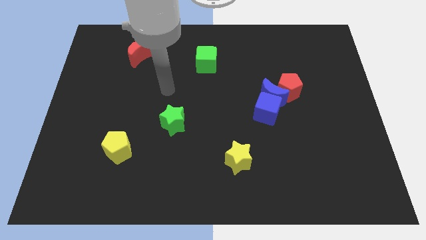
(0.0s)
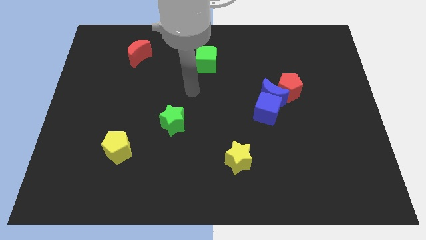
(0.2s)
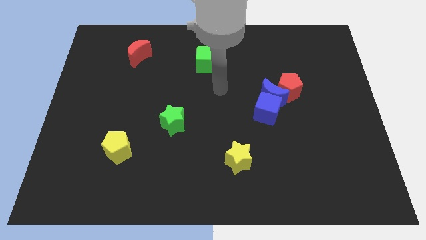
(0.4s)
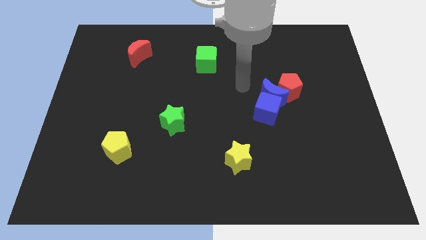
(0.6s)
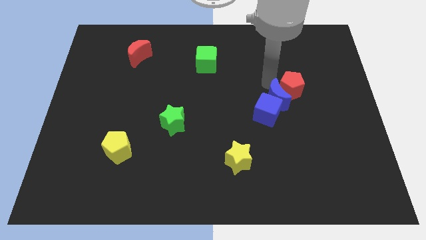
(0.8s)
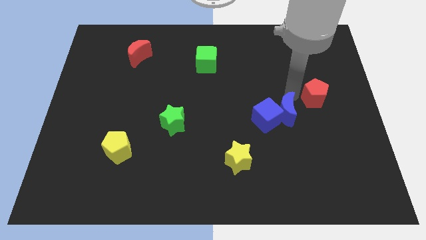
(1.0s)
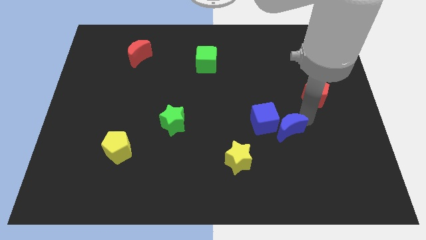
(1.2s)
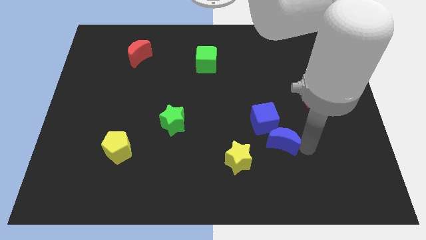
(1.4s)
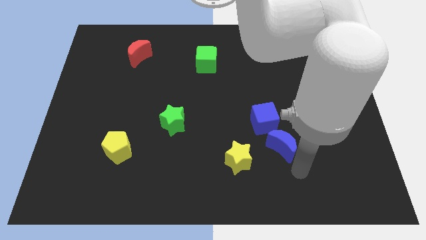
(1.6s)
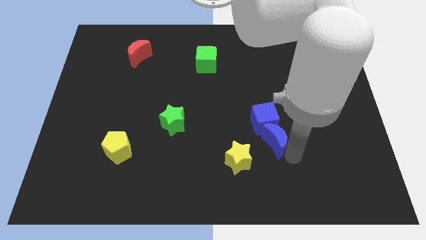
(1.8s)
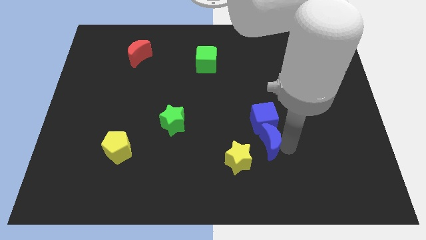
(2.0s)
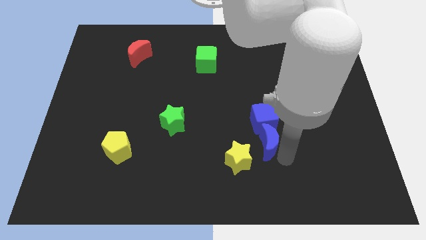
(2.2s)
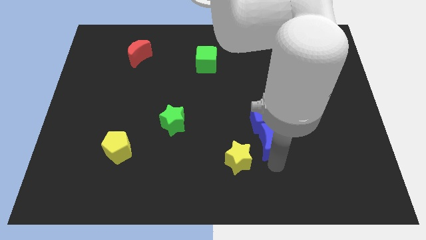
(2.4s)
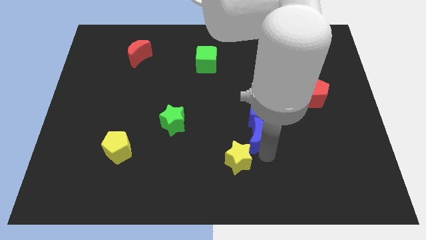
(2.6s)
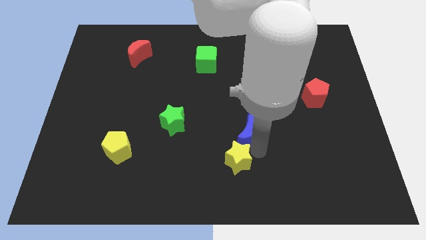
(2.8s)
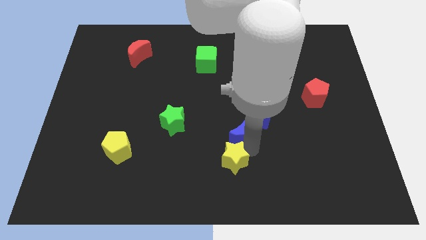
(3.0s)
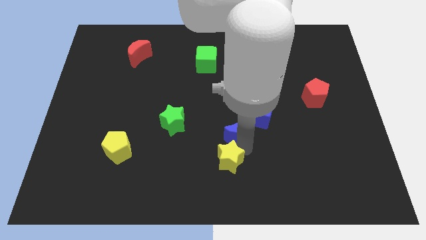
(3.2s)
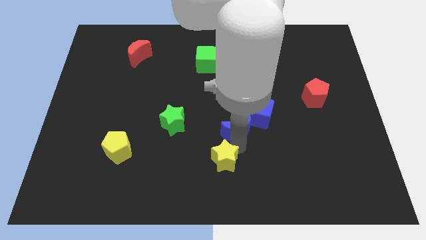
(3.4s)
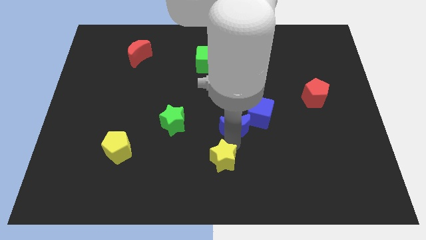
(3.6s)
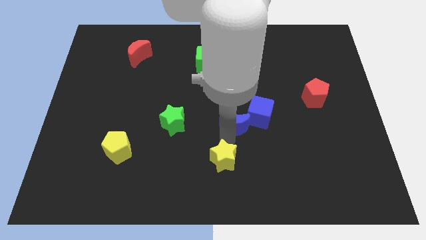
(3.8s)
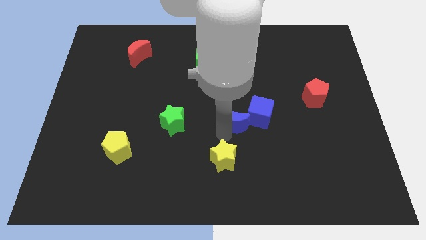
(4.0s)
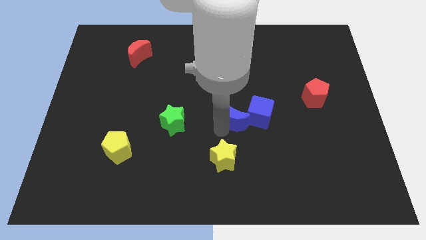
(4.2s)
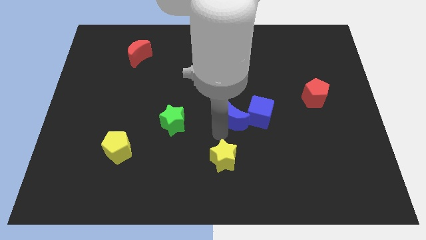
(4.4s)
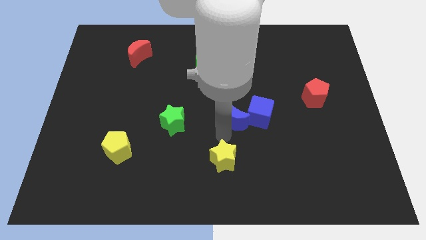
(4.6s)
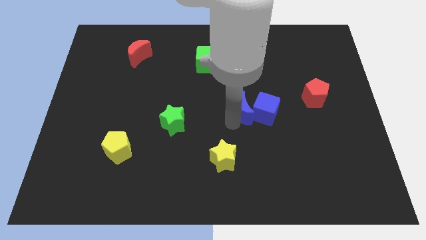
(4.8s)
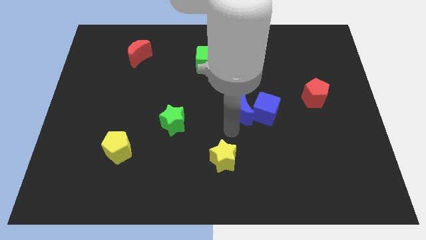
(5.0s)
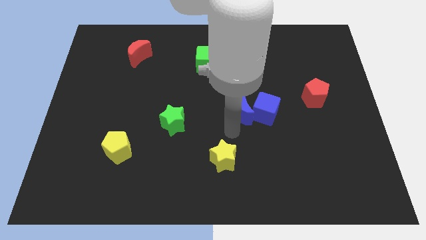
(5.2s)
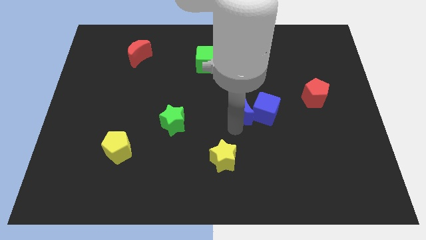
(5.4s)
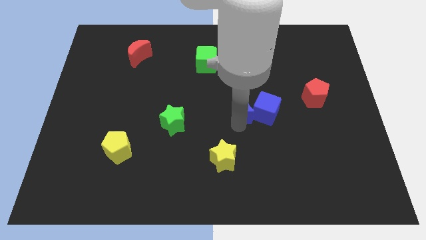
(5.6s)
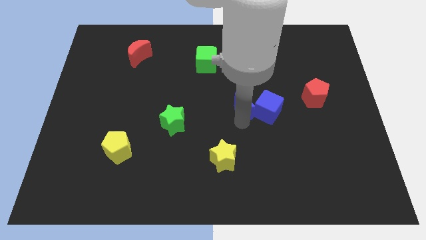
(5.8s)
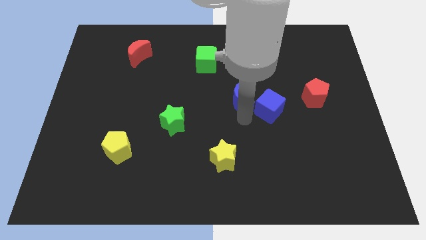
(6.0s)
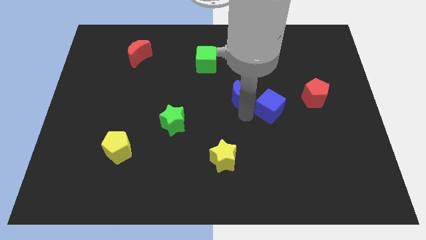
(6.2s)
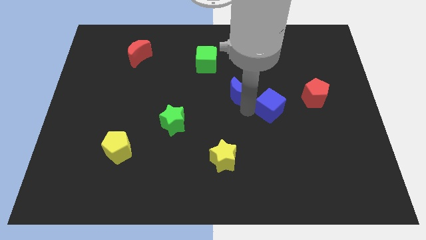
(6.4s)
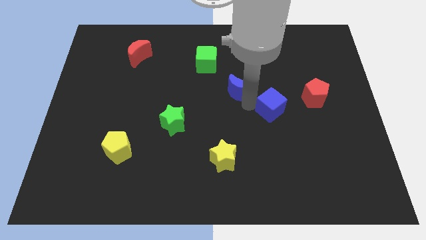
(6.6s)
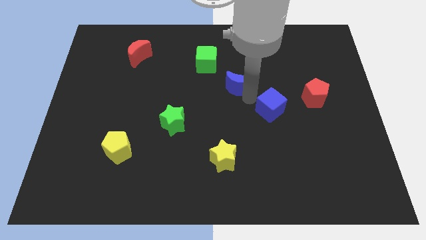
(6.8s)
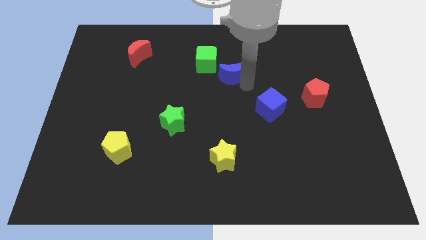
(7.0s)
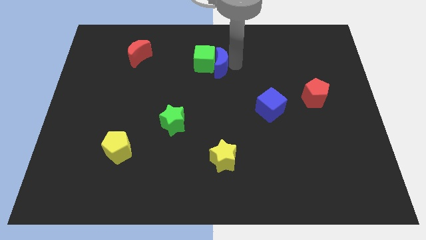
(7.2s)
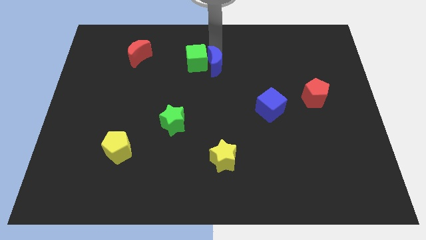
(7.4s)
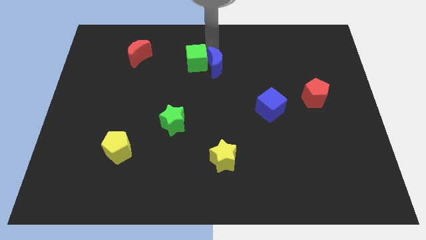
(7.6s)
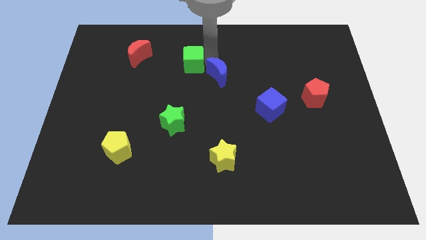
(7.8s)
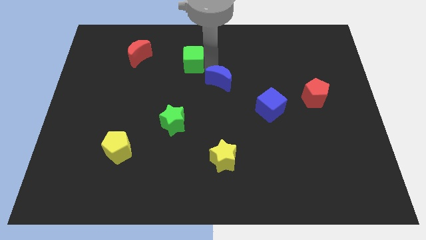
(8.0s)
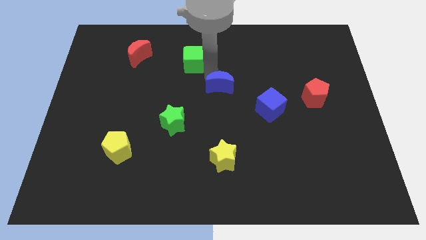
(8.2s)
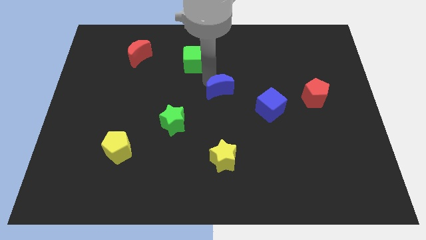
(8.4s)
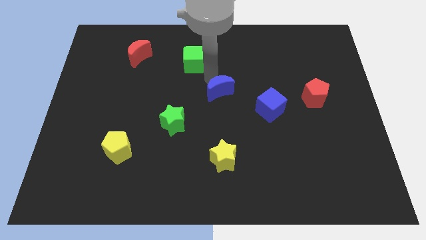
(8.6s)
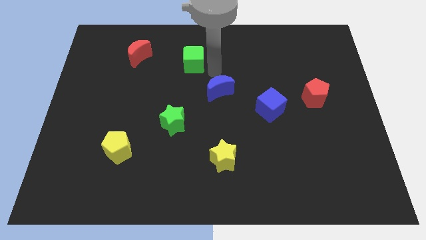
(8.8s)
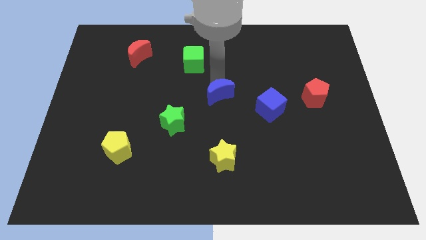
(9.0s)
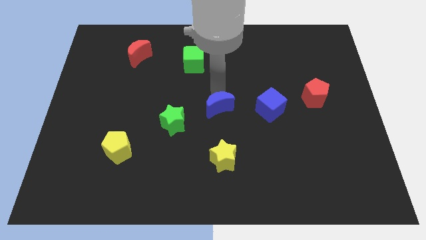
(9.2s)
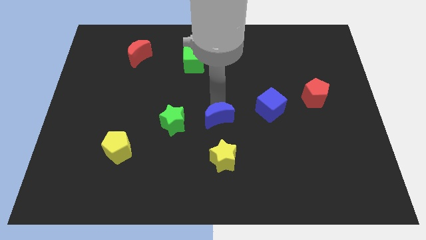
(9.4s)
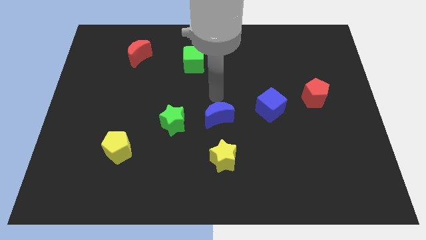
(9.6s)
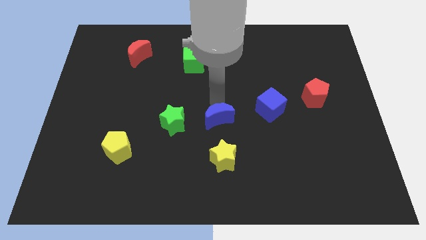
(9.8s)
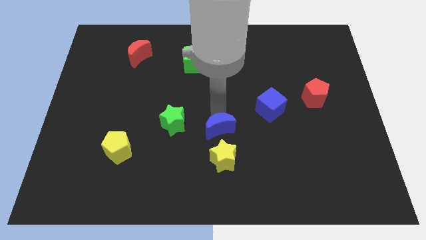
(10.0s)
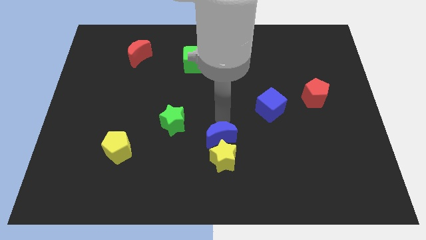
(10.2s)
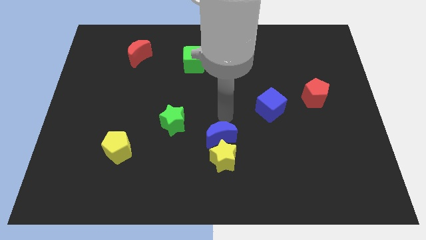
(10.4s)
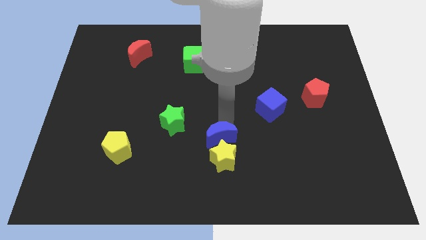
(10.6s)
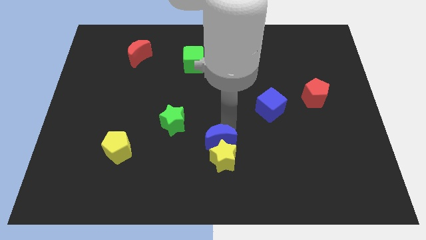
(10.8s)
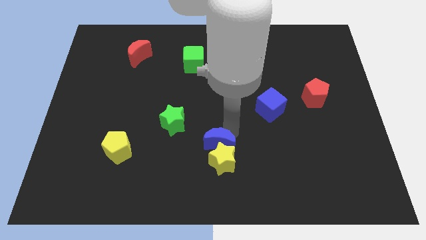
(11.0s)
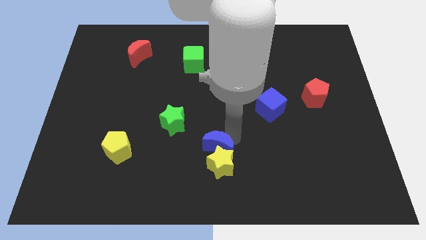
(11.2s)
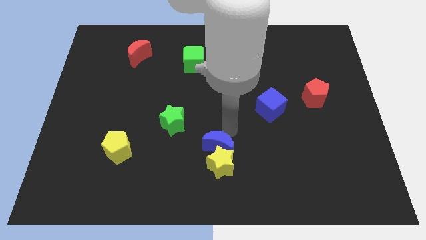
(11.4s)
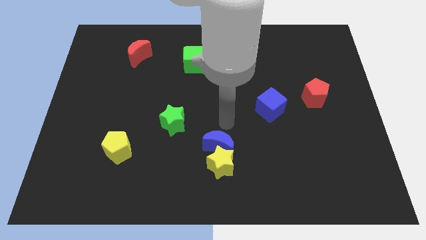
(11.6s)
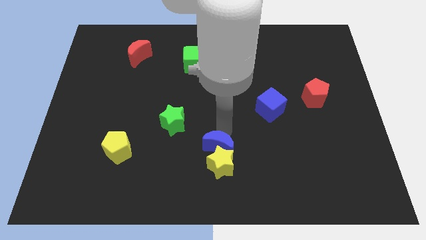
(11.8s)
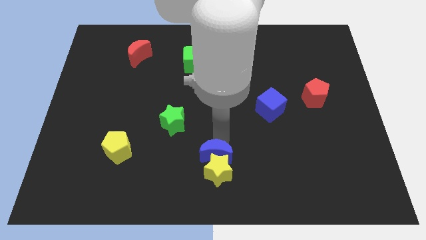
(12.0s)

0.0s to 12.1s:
push the blue moon to the bottom side

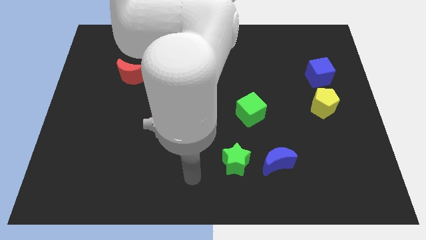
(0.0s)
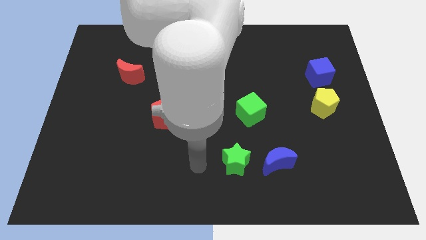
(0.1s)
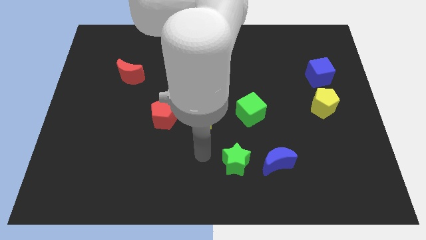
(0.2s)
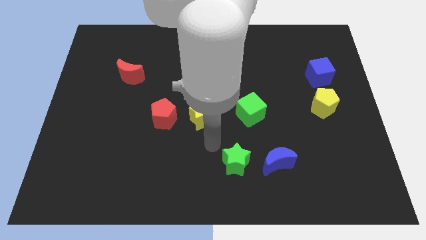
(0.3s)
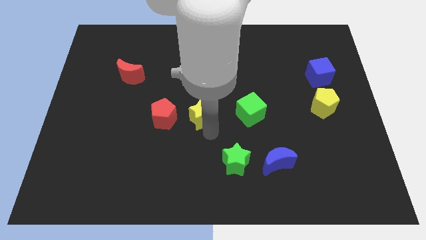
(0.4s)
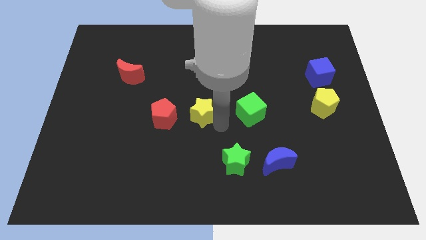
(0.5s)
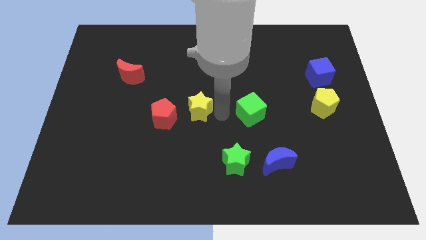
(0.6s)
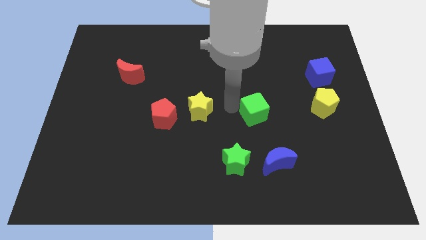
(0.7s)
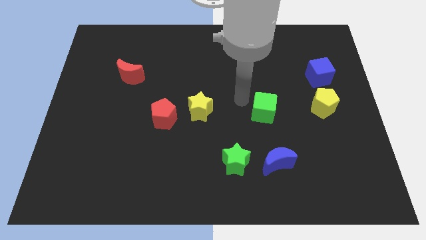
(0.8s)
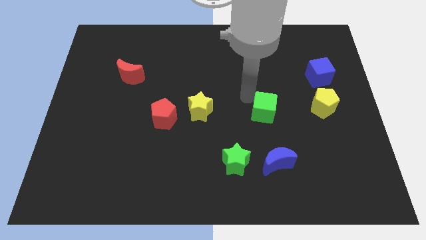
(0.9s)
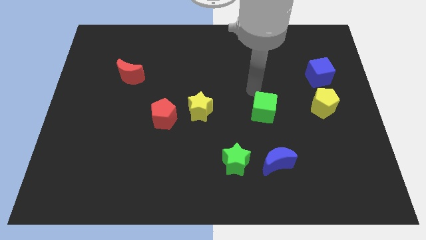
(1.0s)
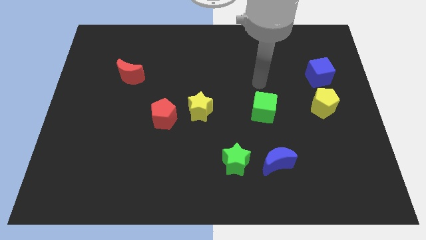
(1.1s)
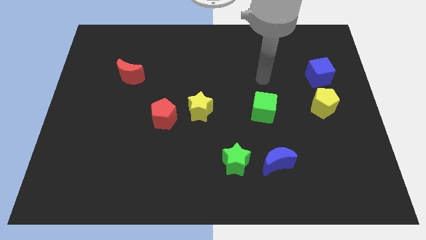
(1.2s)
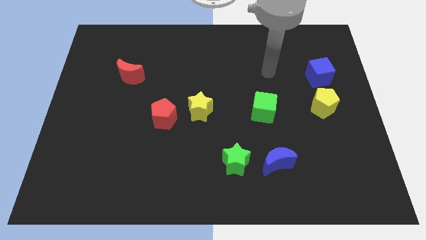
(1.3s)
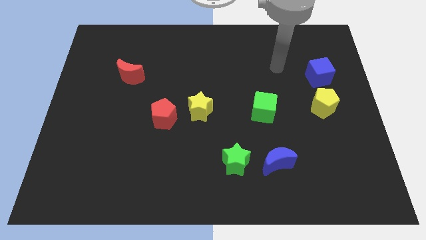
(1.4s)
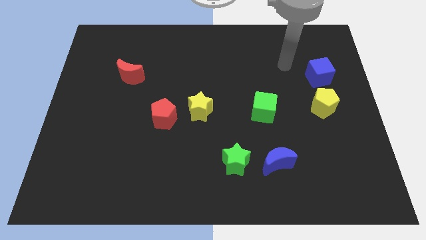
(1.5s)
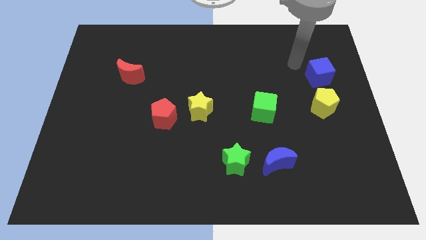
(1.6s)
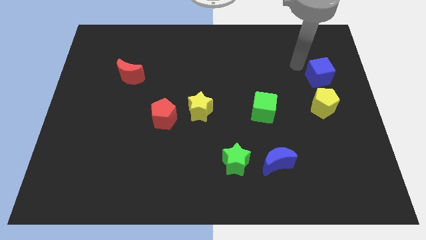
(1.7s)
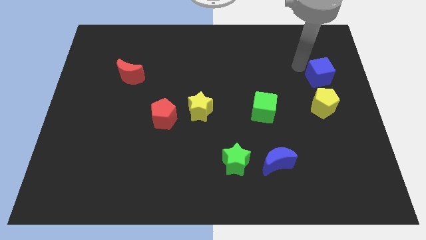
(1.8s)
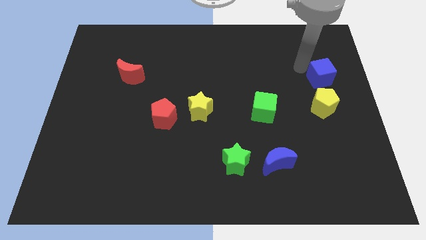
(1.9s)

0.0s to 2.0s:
move the blue cube to the center right
